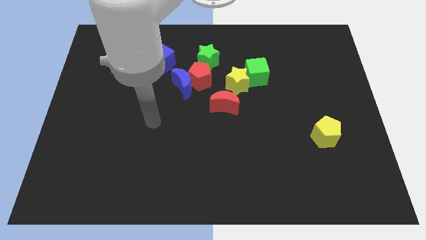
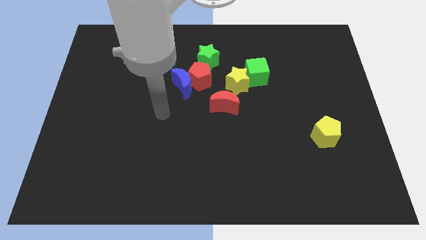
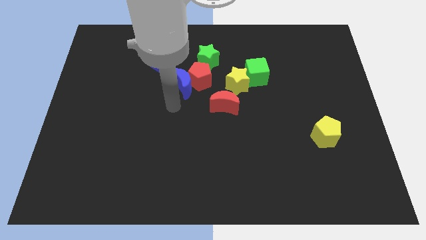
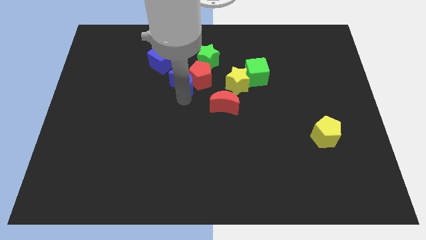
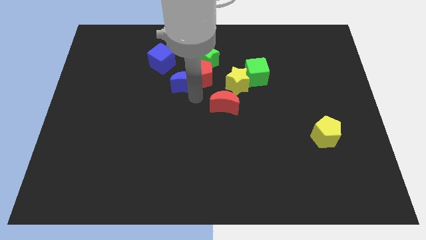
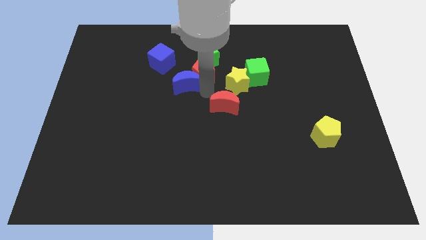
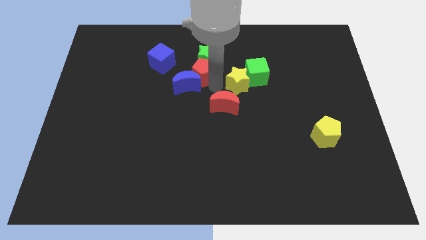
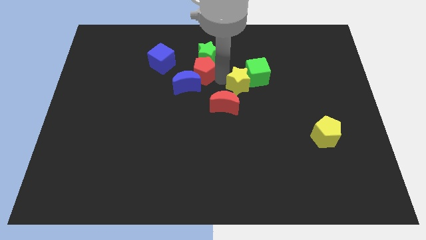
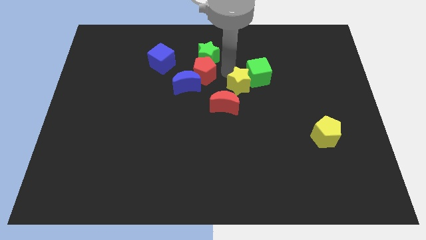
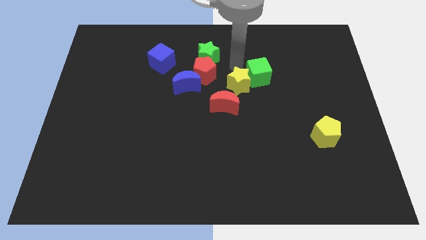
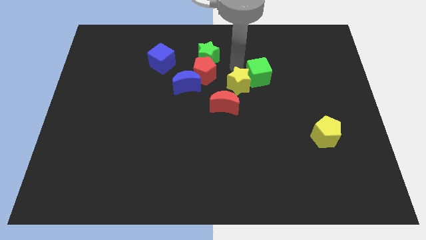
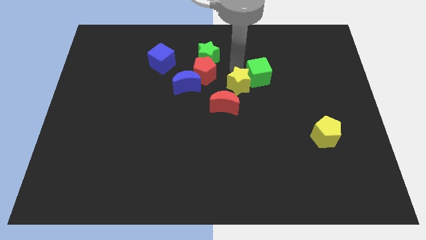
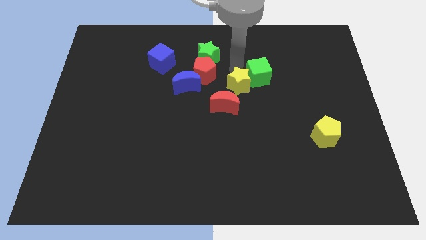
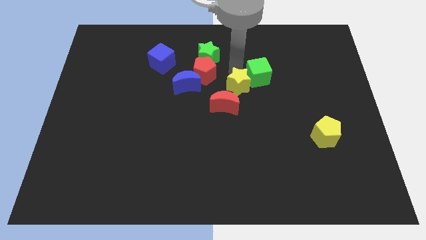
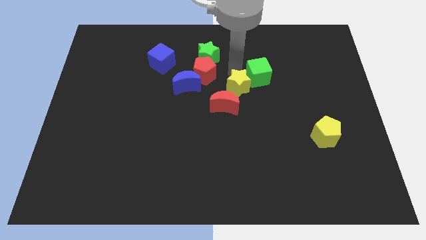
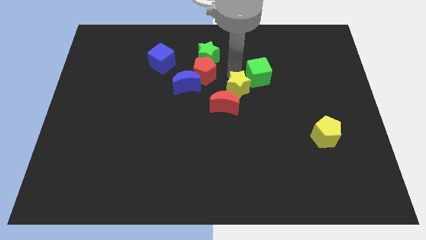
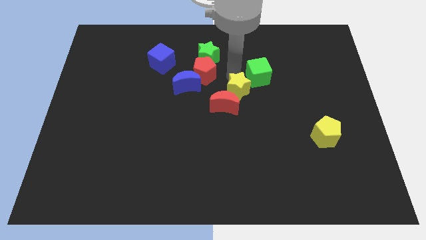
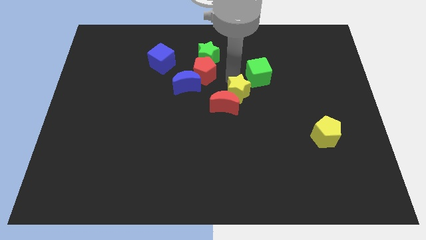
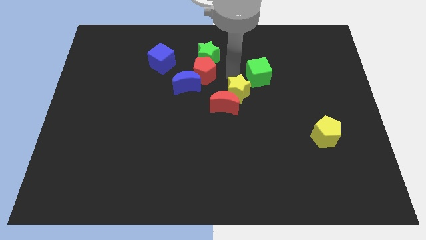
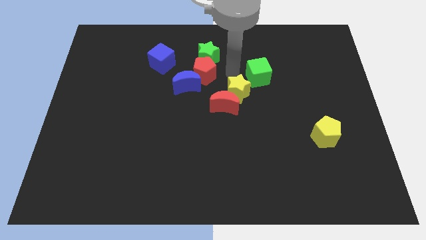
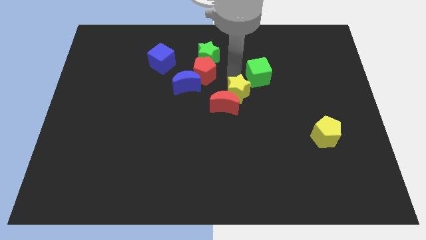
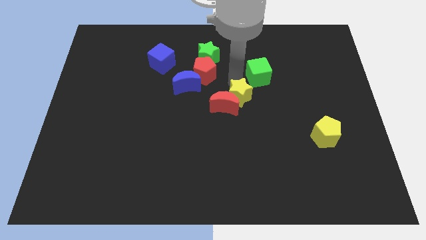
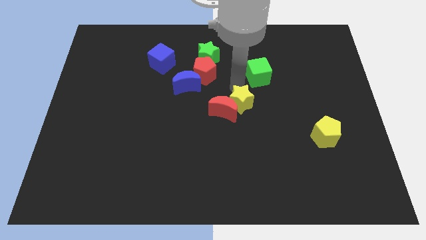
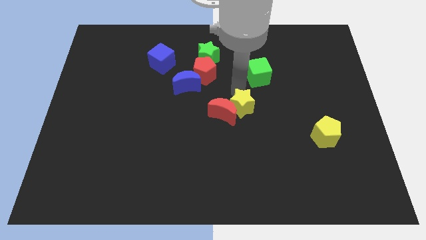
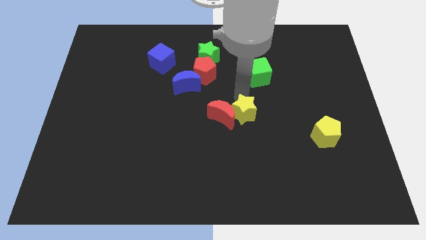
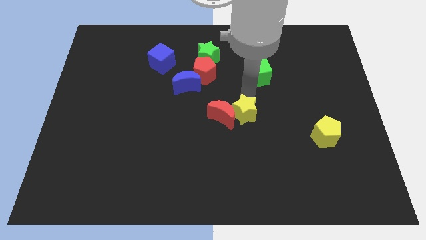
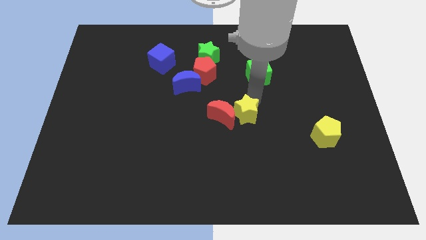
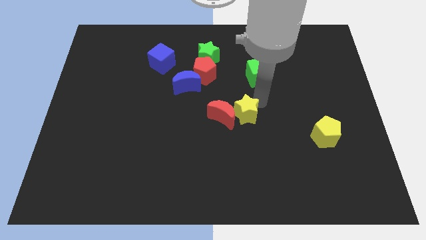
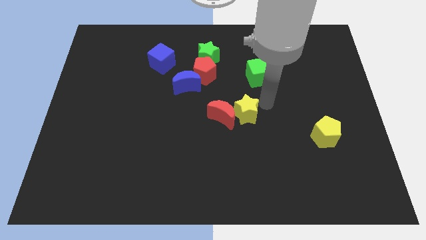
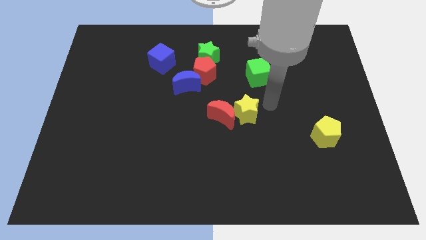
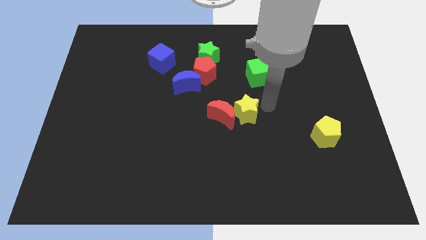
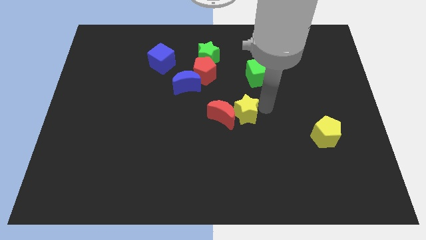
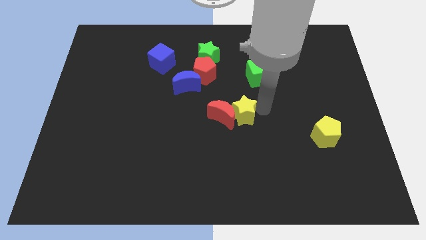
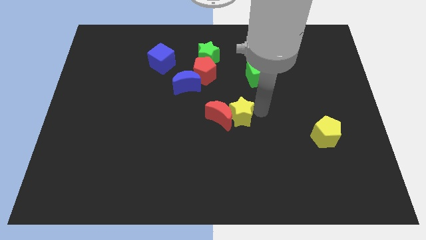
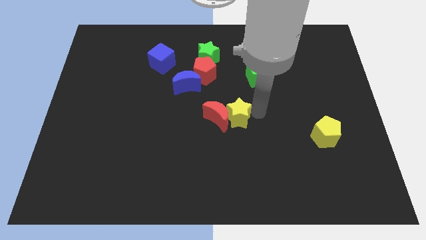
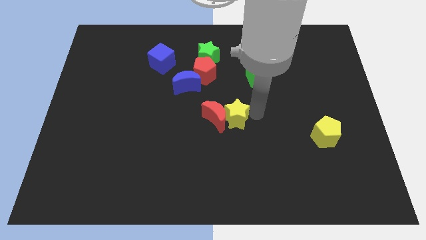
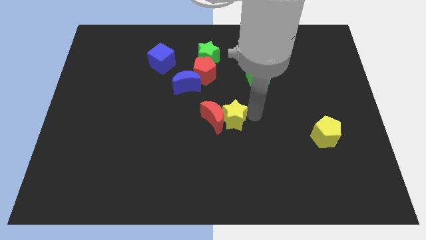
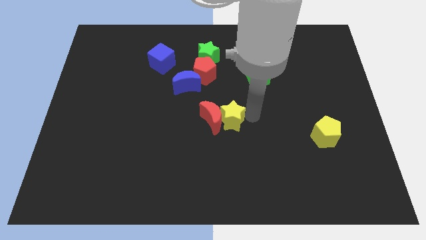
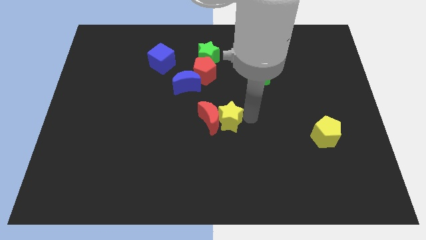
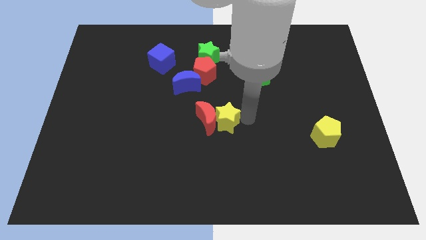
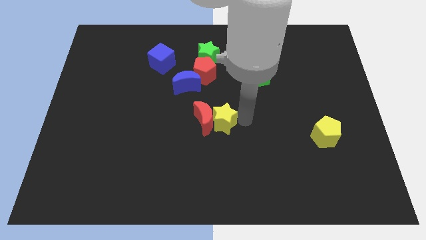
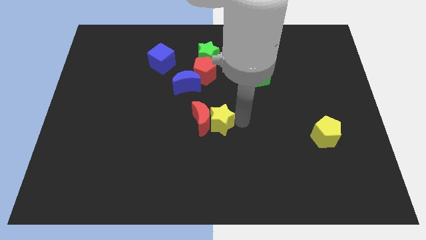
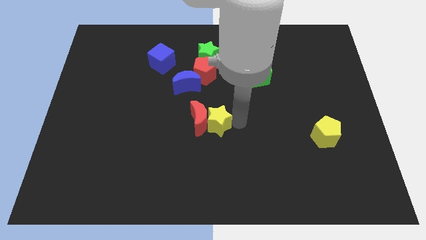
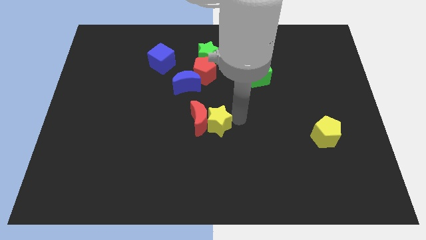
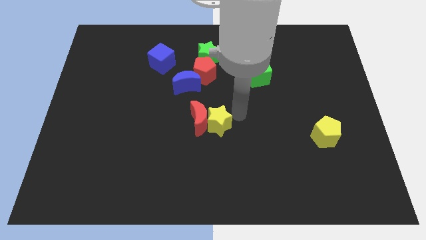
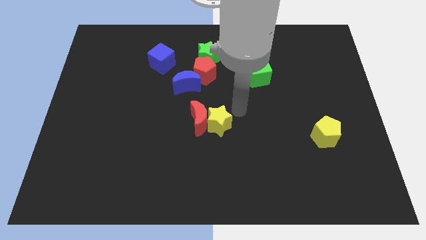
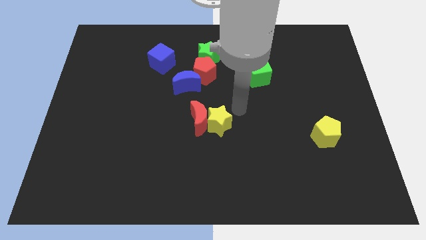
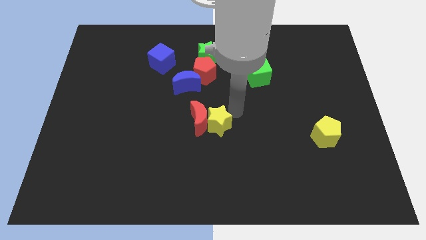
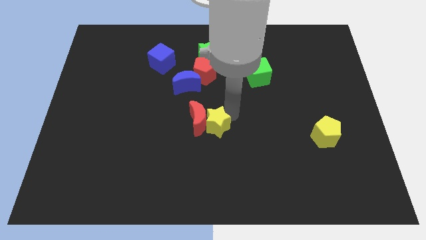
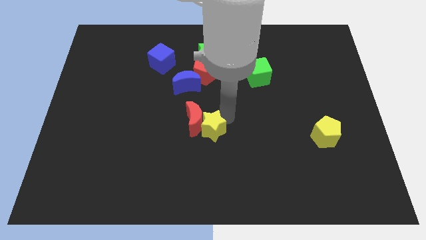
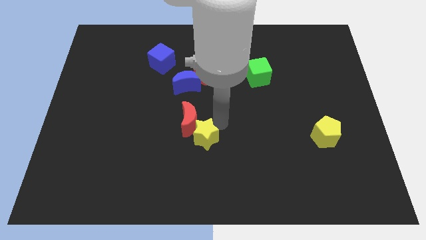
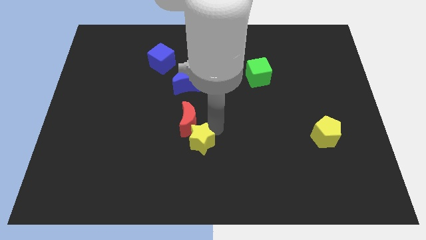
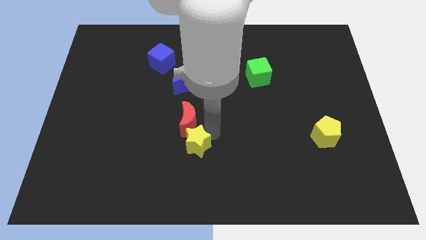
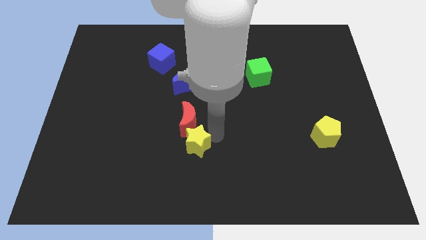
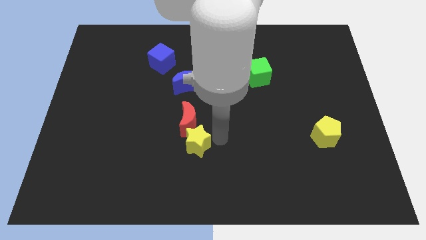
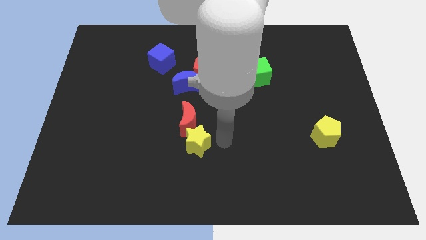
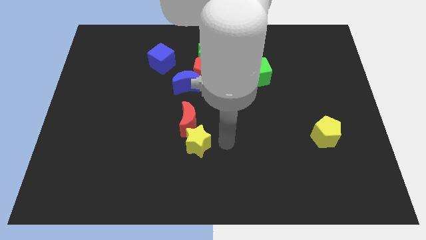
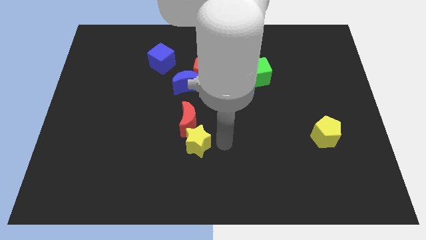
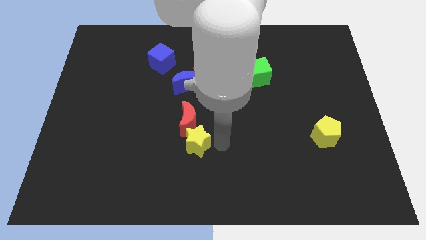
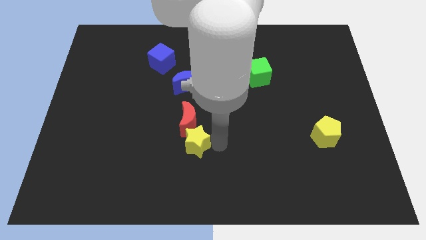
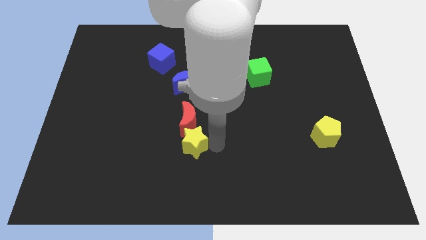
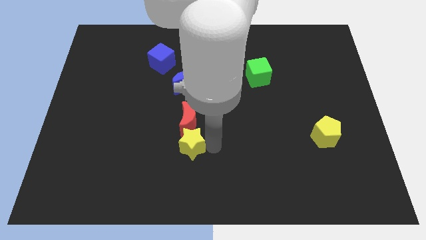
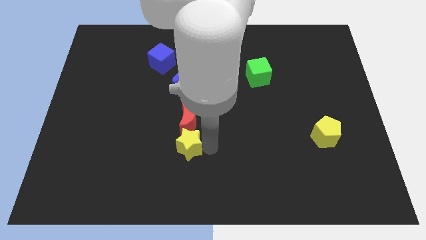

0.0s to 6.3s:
push the yellow star downwards and to the left diagonally

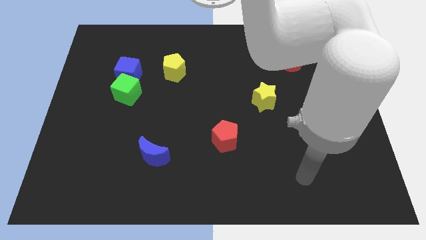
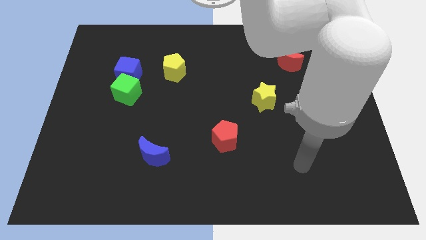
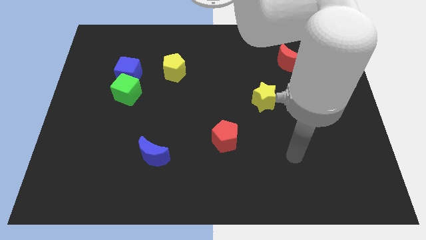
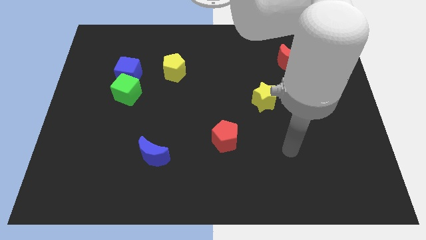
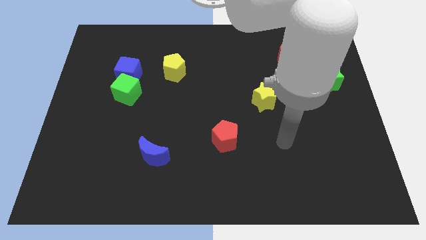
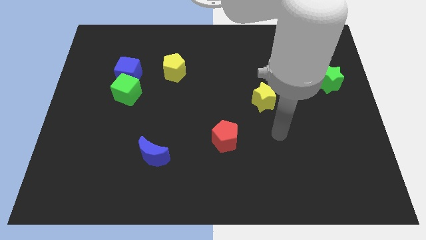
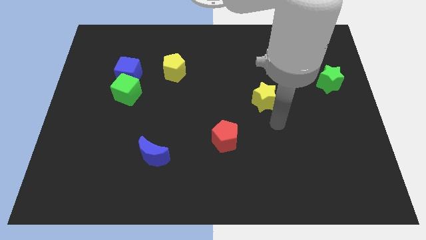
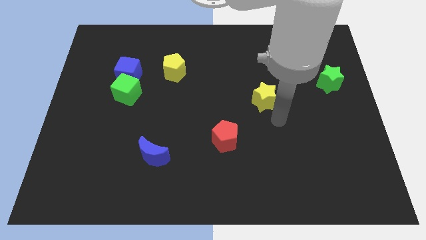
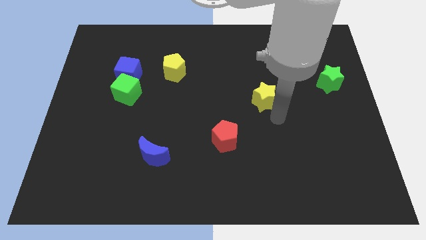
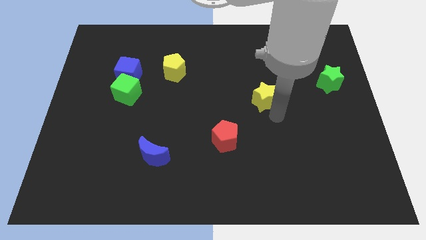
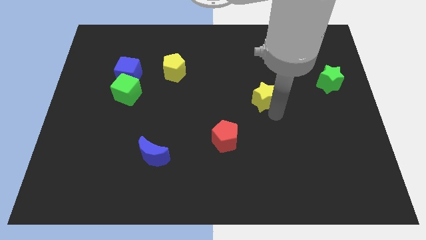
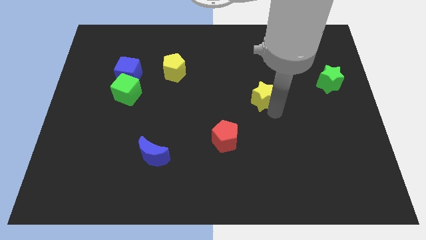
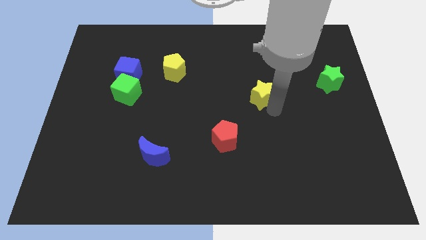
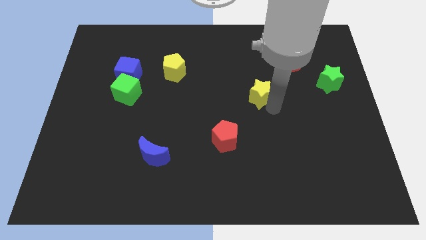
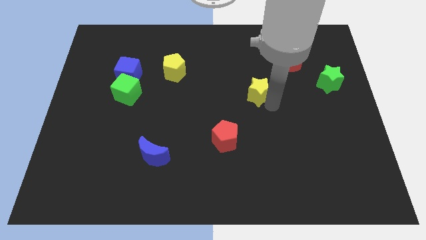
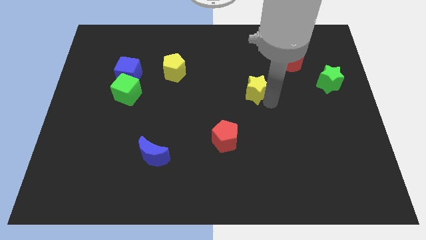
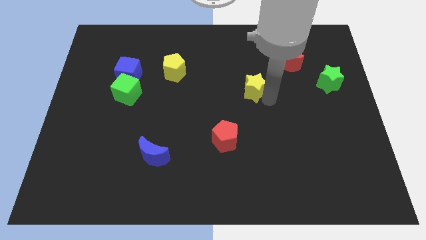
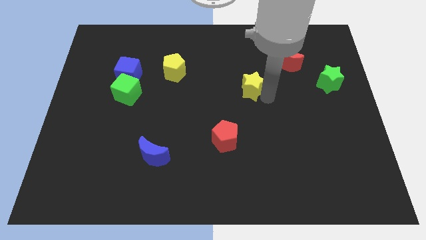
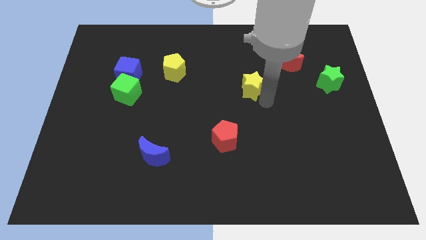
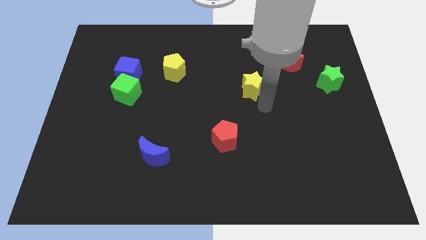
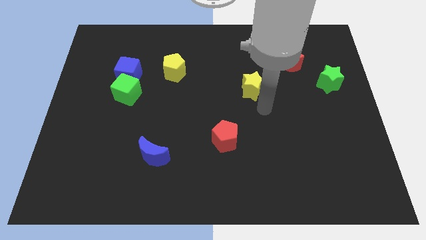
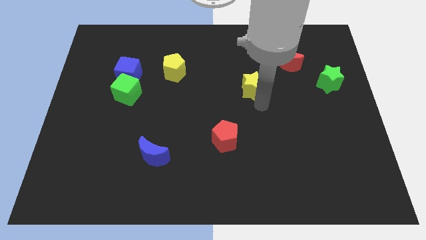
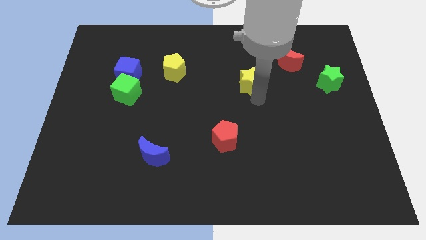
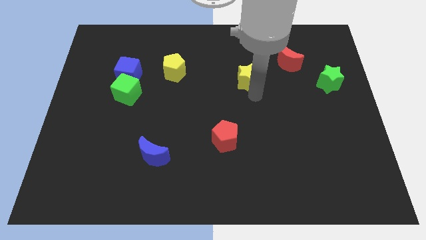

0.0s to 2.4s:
slightly push the yellow star upwards and left
